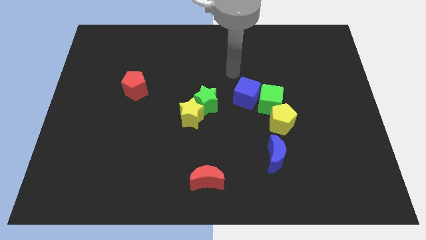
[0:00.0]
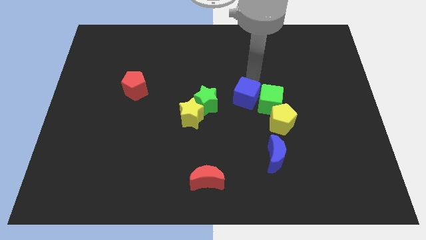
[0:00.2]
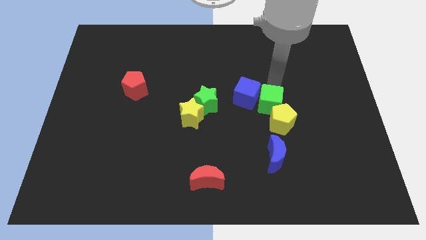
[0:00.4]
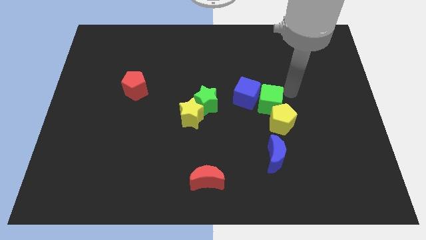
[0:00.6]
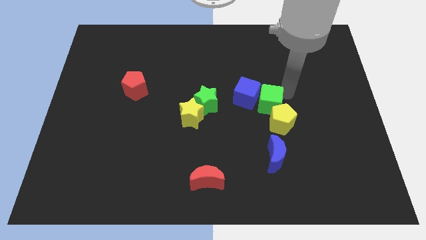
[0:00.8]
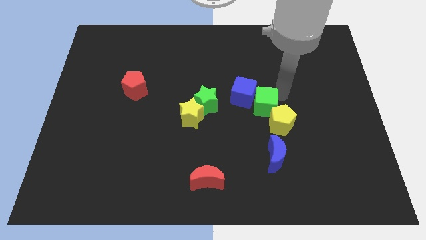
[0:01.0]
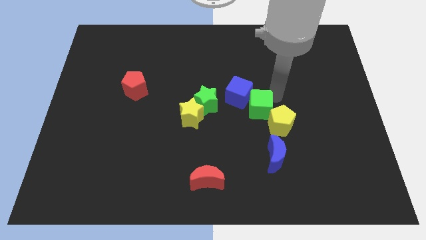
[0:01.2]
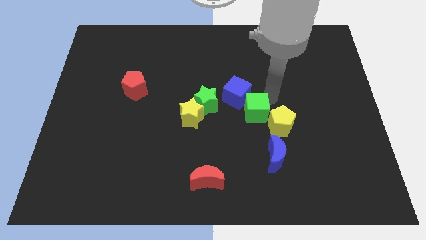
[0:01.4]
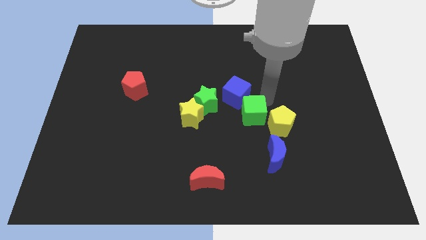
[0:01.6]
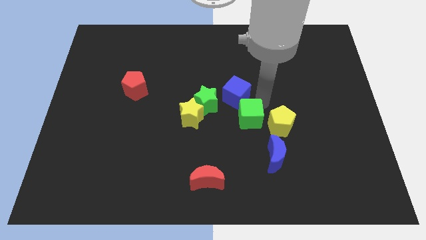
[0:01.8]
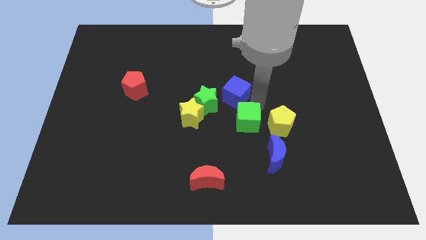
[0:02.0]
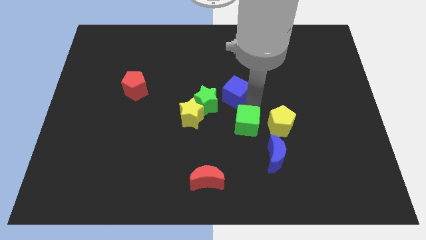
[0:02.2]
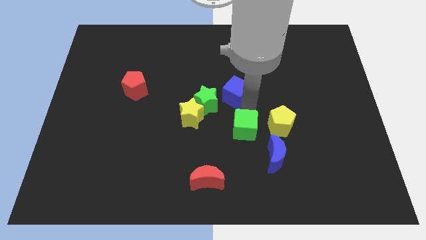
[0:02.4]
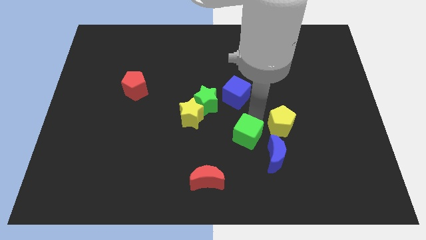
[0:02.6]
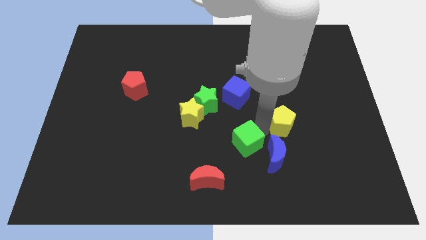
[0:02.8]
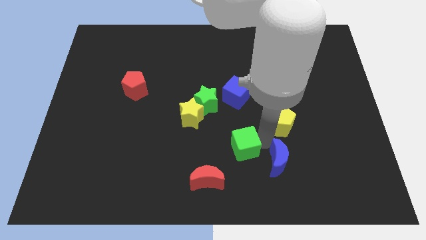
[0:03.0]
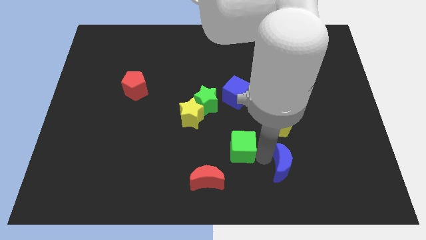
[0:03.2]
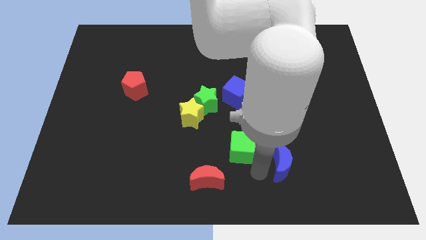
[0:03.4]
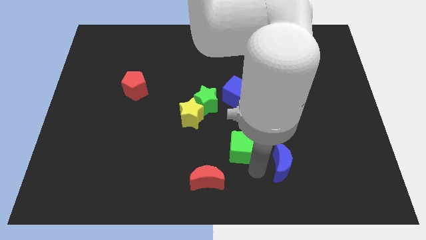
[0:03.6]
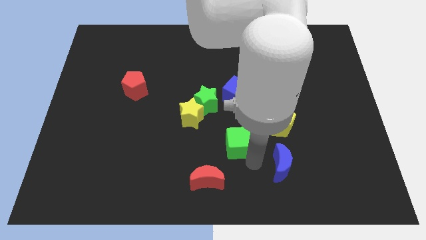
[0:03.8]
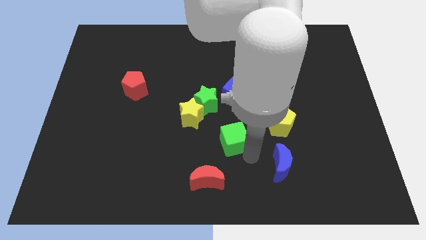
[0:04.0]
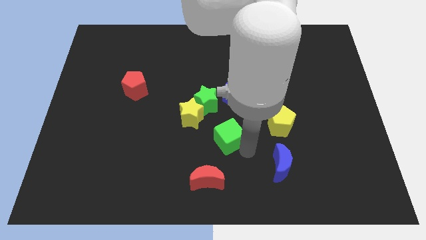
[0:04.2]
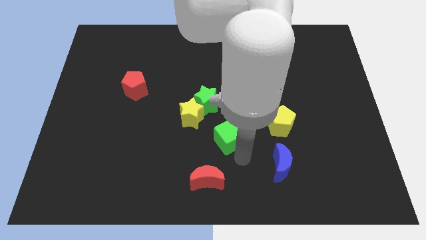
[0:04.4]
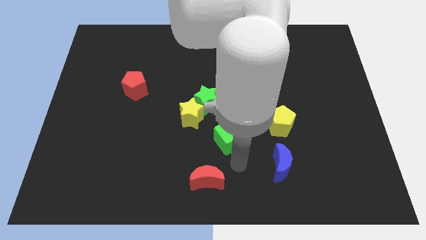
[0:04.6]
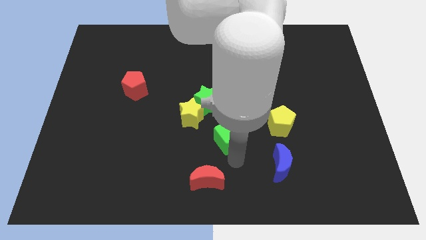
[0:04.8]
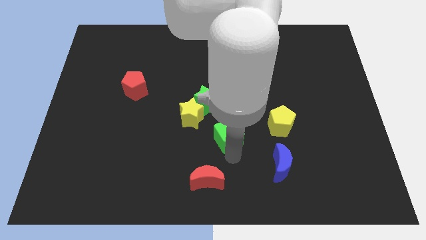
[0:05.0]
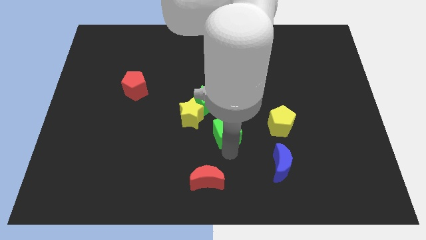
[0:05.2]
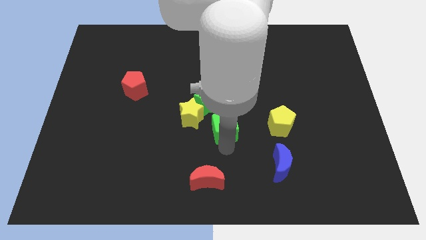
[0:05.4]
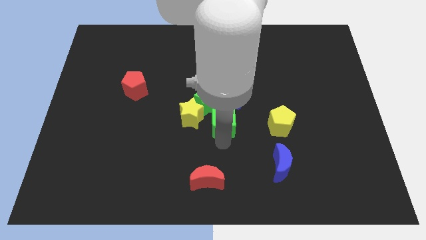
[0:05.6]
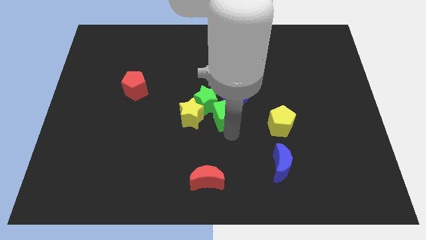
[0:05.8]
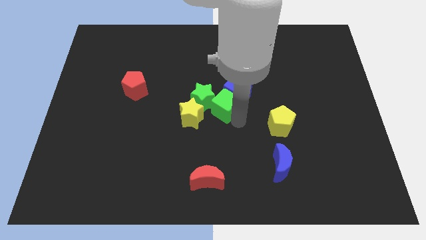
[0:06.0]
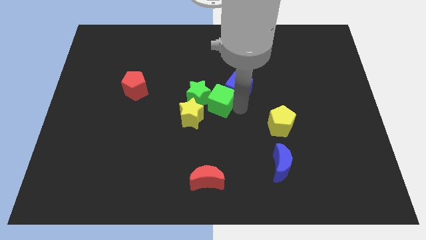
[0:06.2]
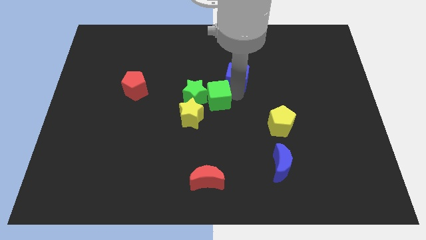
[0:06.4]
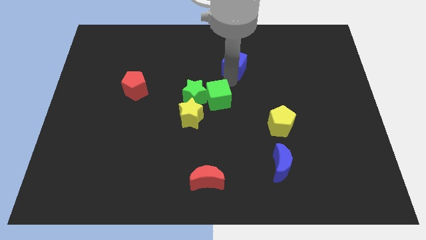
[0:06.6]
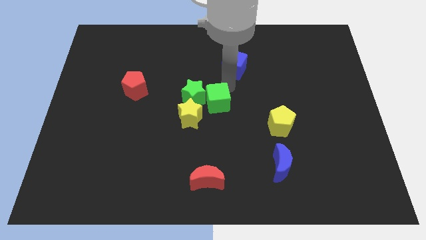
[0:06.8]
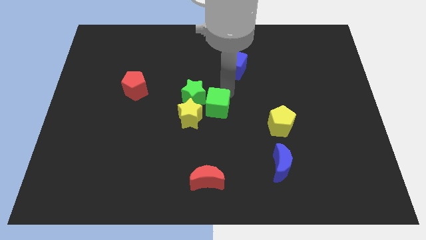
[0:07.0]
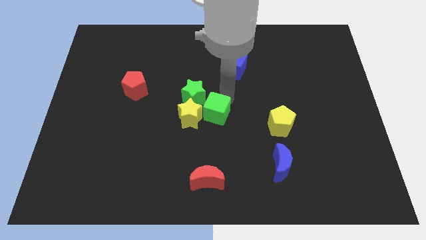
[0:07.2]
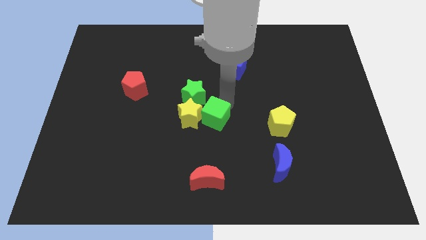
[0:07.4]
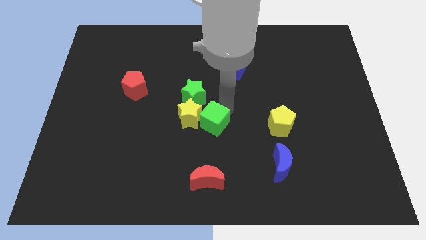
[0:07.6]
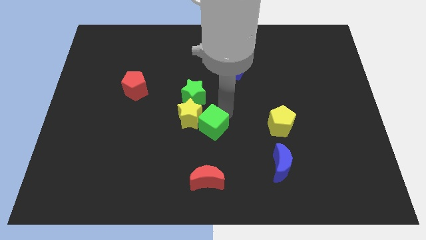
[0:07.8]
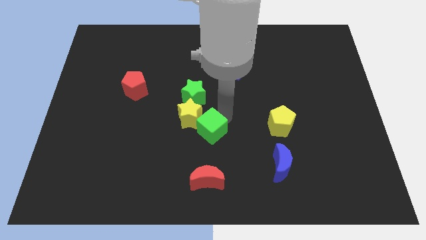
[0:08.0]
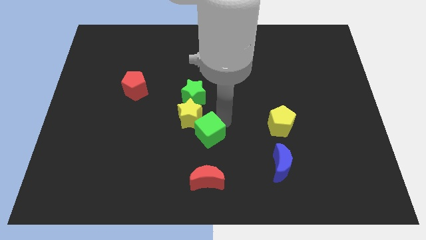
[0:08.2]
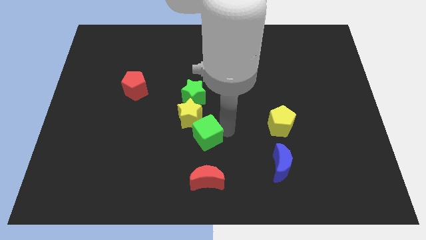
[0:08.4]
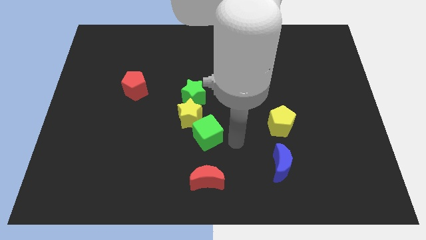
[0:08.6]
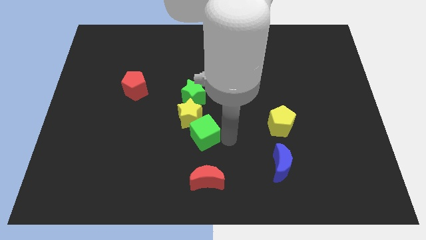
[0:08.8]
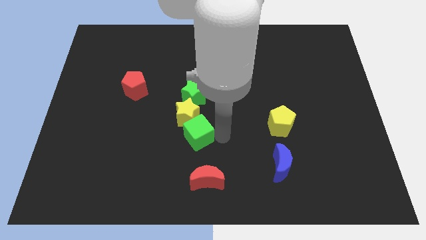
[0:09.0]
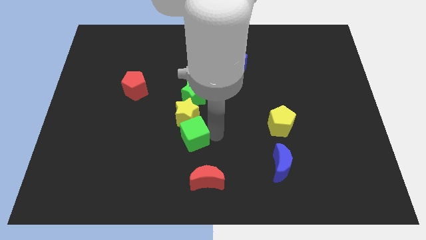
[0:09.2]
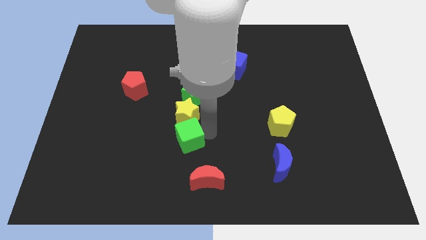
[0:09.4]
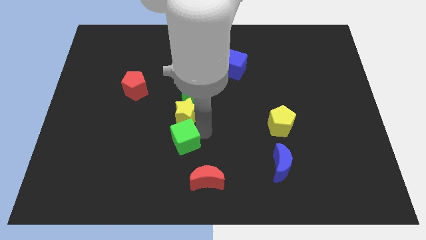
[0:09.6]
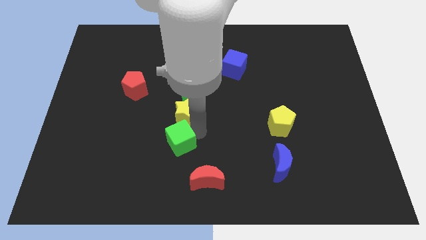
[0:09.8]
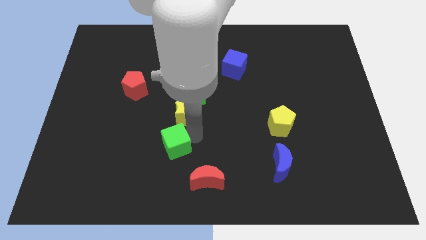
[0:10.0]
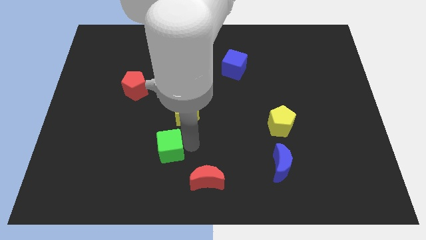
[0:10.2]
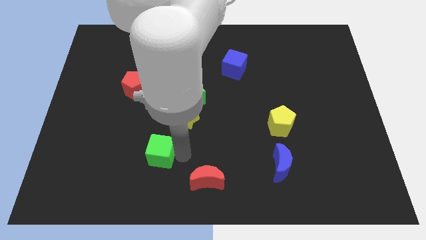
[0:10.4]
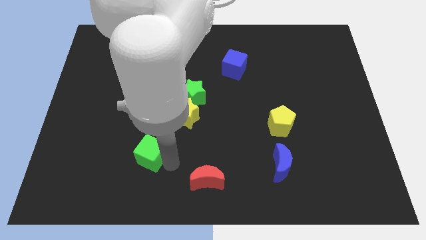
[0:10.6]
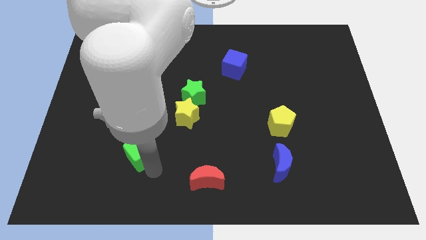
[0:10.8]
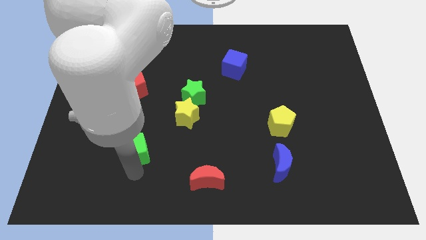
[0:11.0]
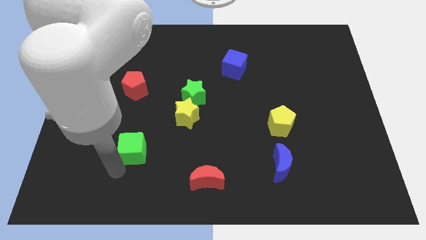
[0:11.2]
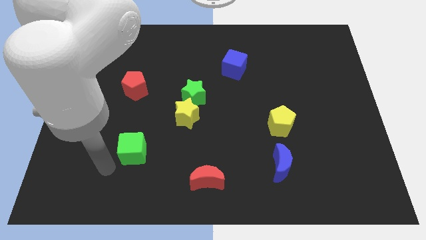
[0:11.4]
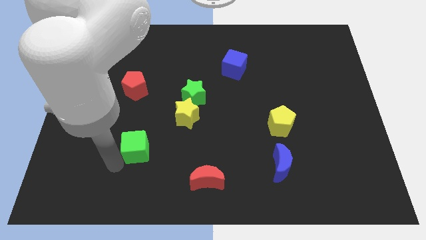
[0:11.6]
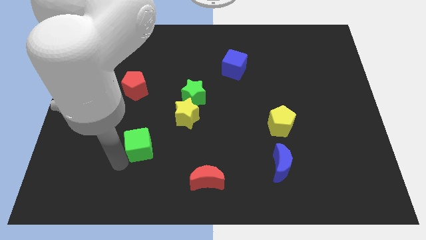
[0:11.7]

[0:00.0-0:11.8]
slide the green cube to the left

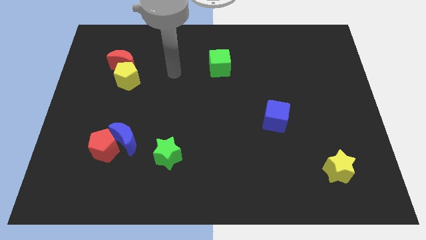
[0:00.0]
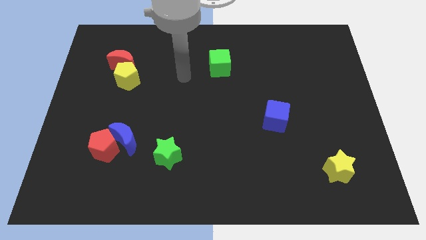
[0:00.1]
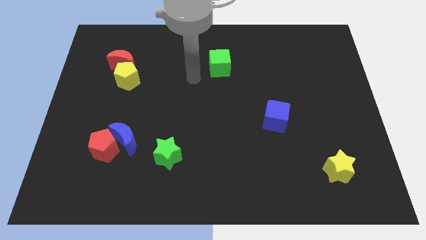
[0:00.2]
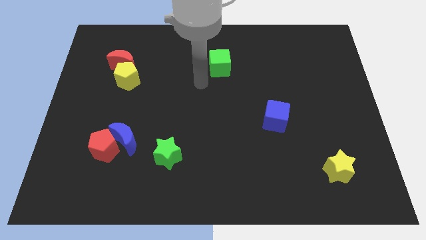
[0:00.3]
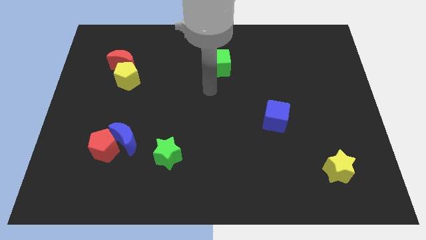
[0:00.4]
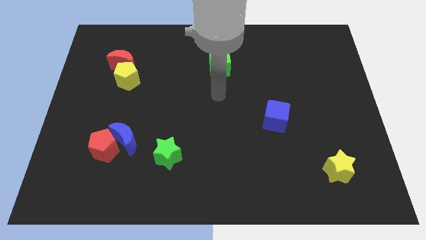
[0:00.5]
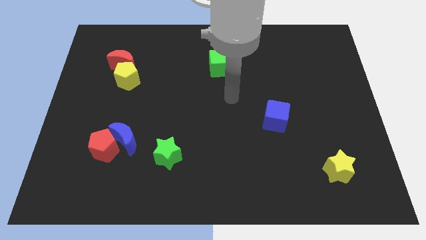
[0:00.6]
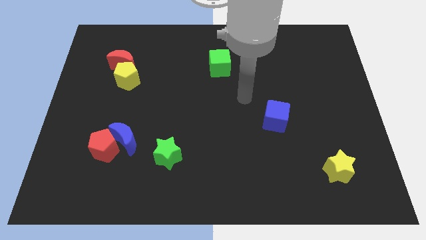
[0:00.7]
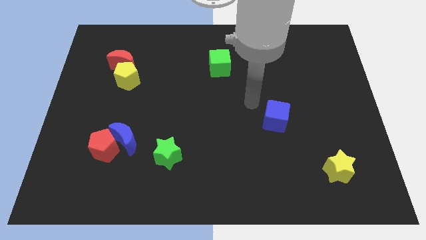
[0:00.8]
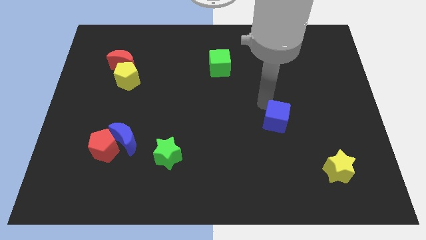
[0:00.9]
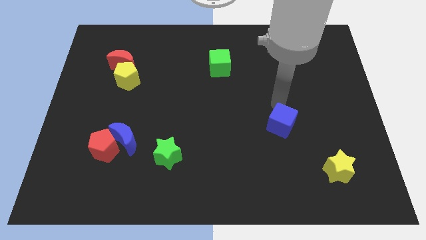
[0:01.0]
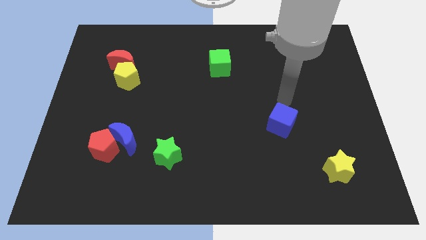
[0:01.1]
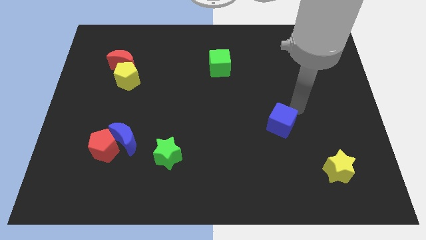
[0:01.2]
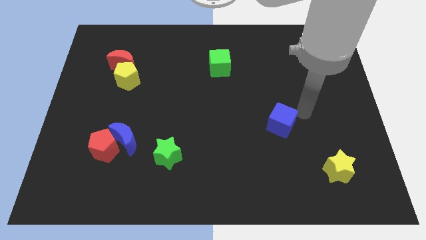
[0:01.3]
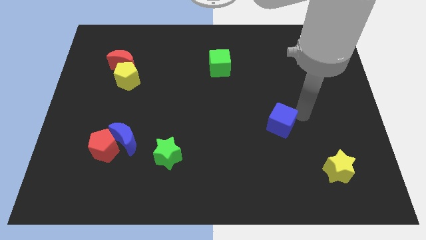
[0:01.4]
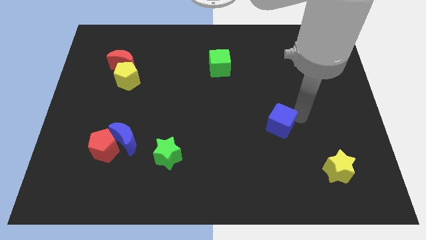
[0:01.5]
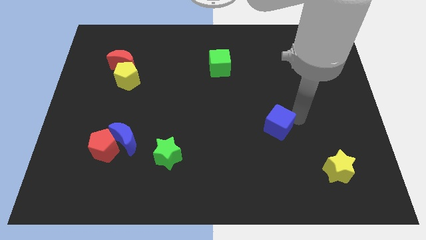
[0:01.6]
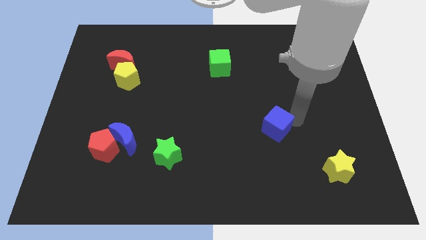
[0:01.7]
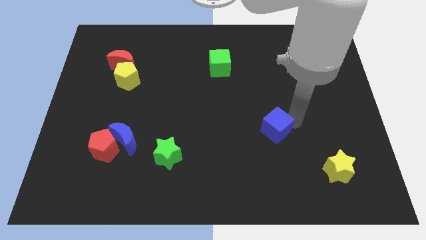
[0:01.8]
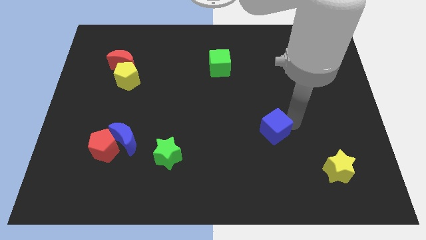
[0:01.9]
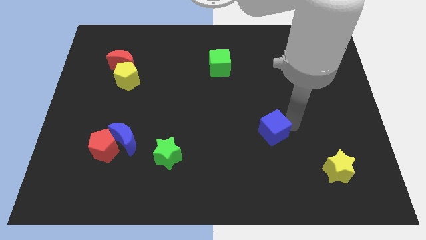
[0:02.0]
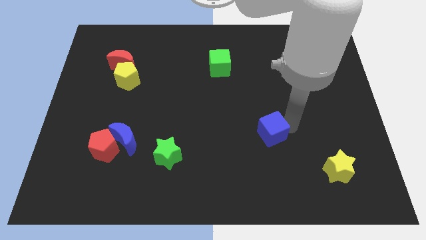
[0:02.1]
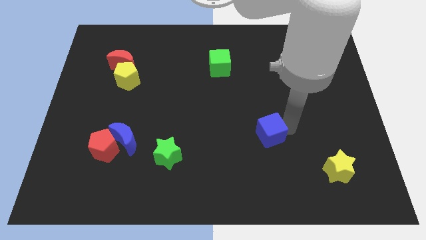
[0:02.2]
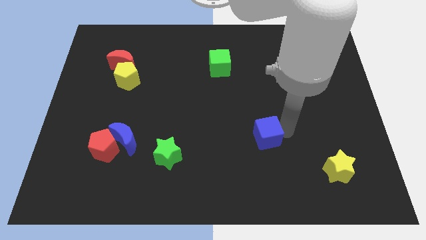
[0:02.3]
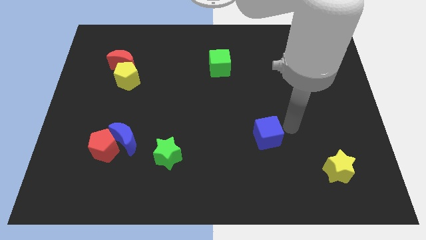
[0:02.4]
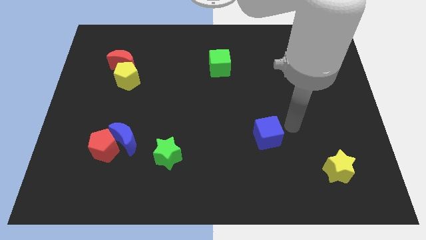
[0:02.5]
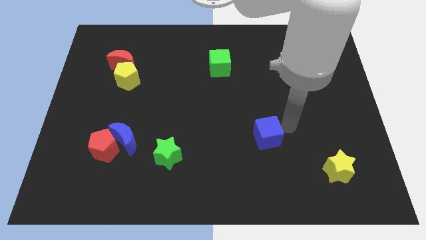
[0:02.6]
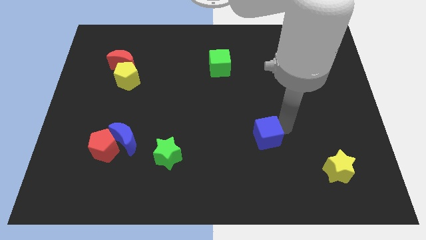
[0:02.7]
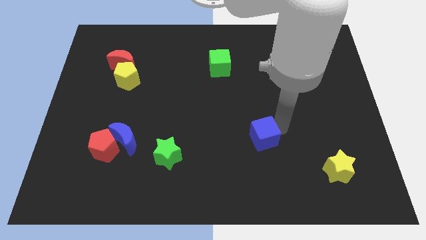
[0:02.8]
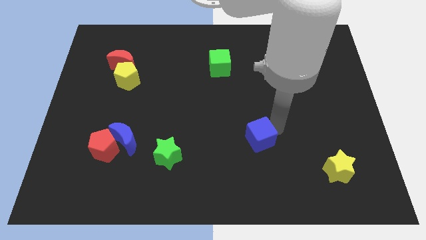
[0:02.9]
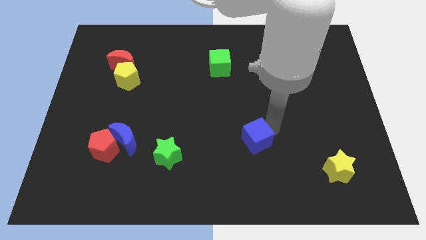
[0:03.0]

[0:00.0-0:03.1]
slide the blue cube down and then left a bit
